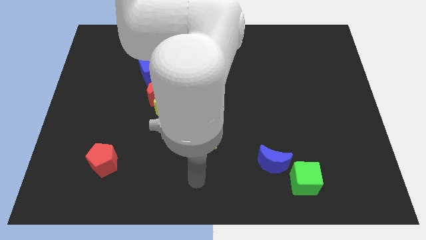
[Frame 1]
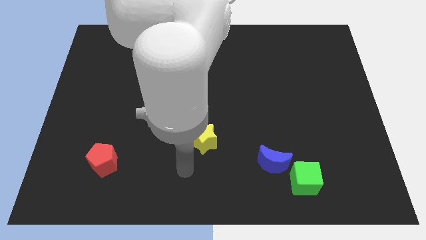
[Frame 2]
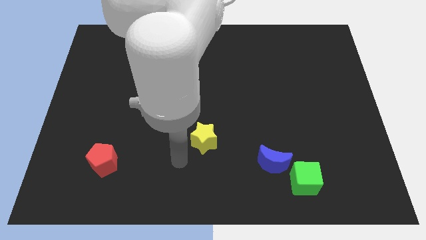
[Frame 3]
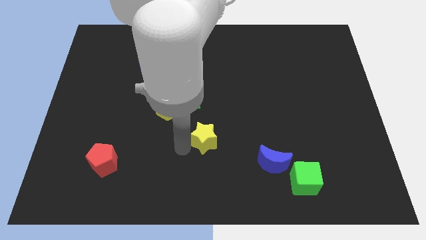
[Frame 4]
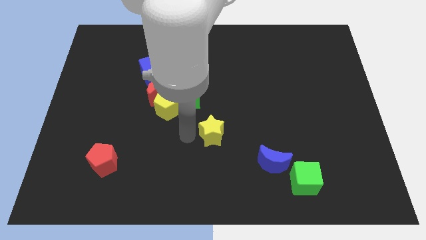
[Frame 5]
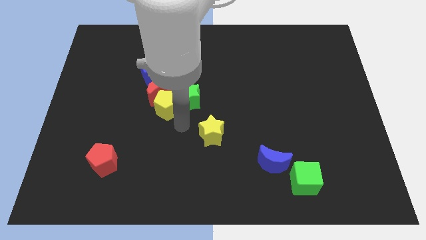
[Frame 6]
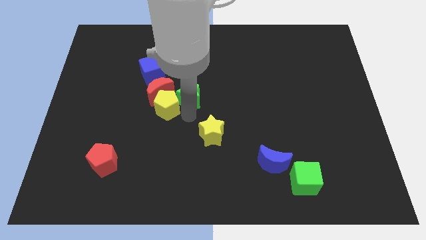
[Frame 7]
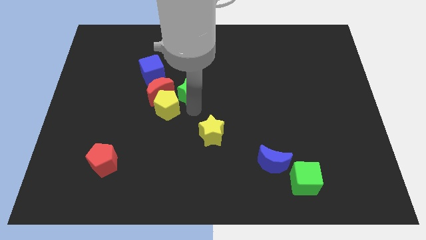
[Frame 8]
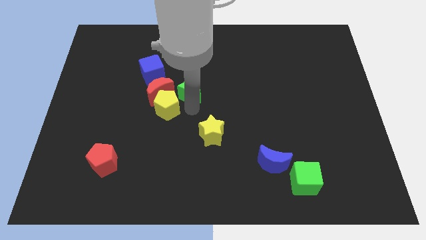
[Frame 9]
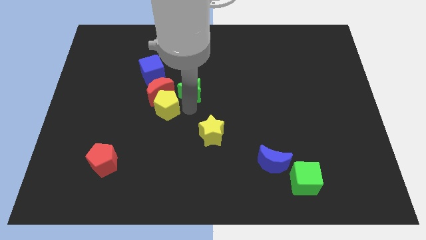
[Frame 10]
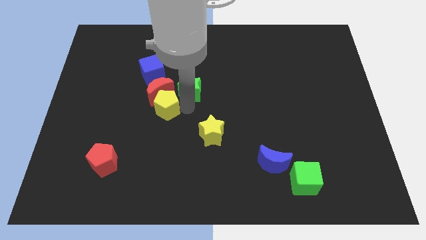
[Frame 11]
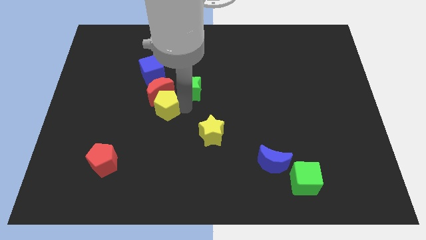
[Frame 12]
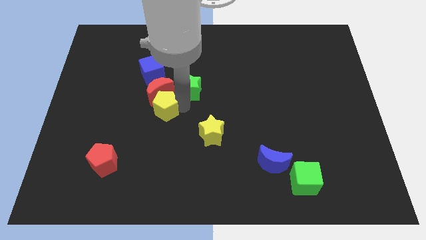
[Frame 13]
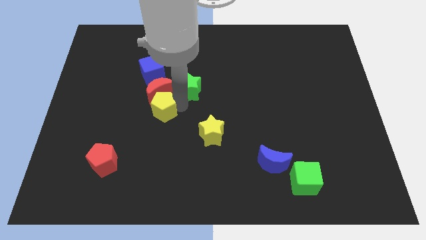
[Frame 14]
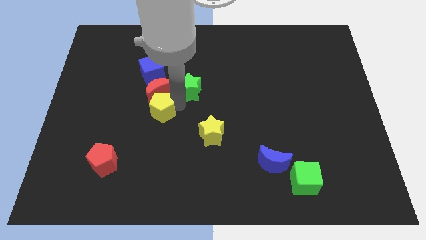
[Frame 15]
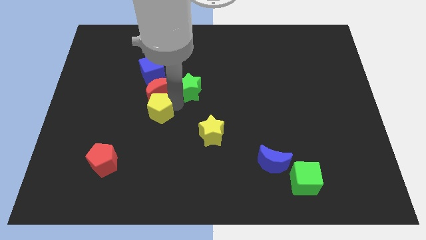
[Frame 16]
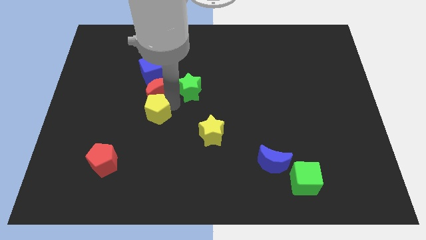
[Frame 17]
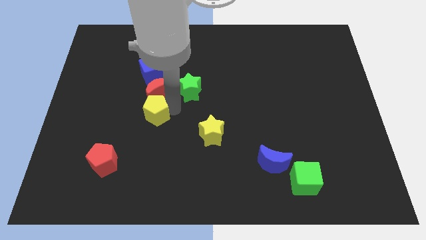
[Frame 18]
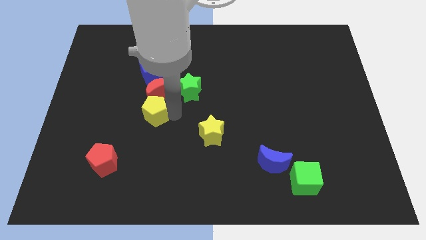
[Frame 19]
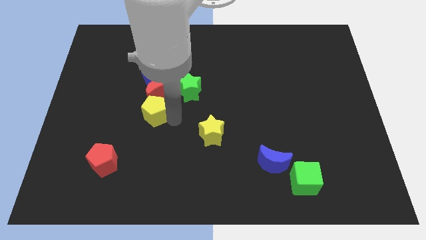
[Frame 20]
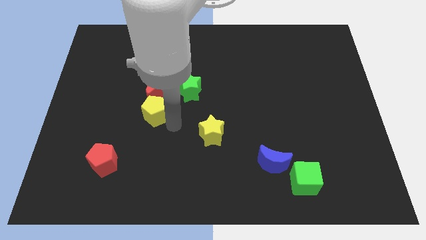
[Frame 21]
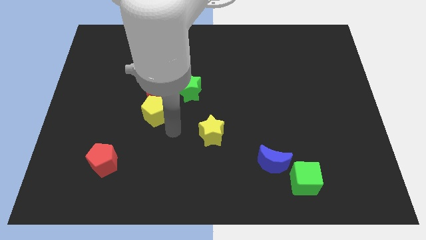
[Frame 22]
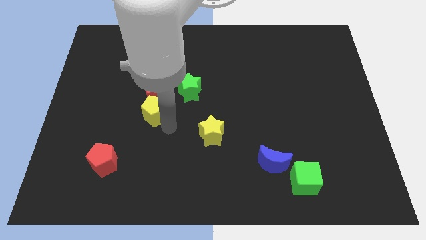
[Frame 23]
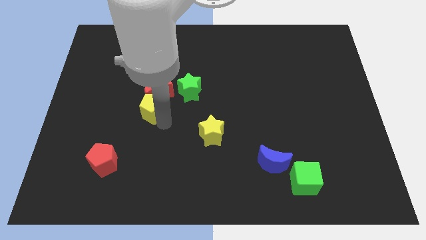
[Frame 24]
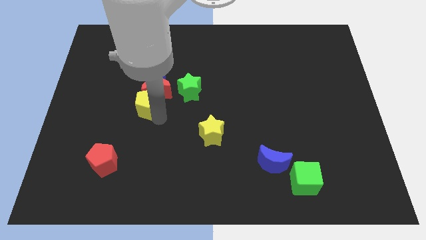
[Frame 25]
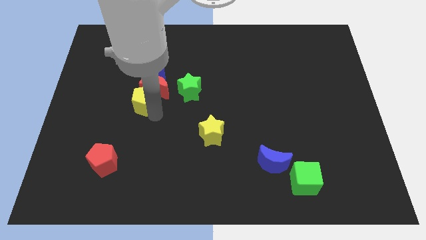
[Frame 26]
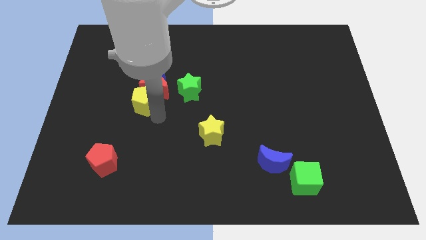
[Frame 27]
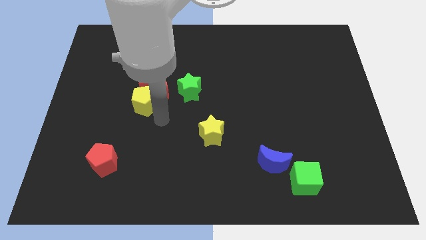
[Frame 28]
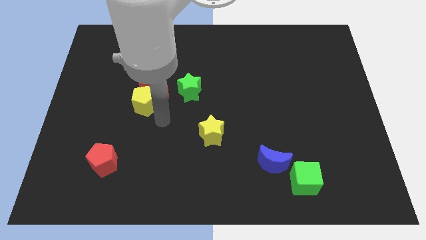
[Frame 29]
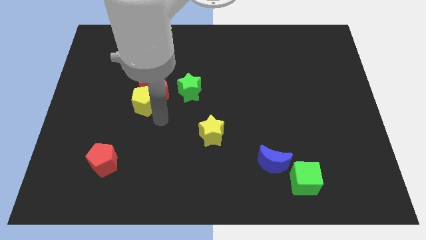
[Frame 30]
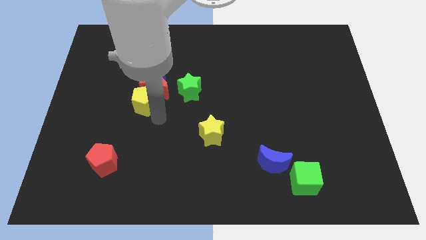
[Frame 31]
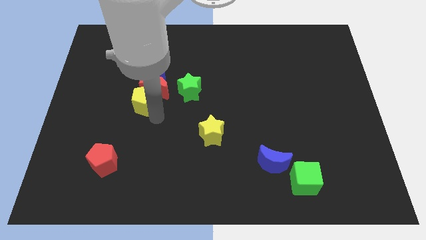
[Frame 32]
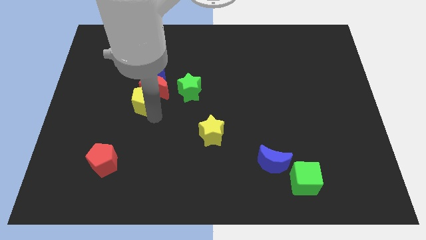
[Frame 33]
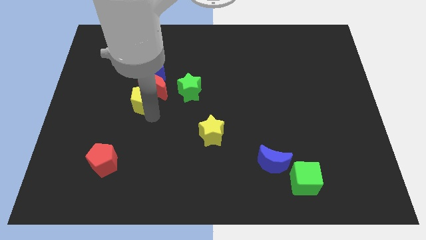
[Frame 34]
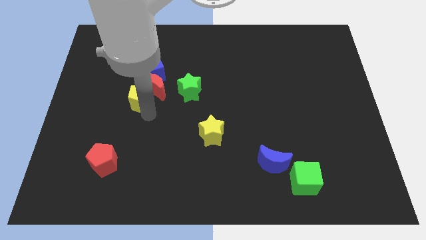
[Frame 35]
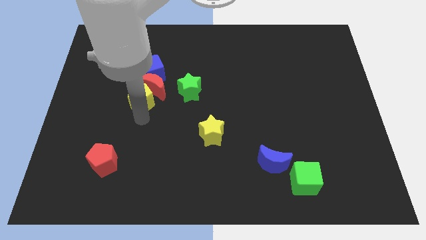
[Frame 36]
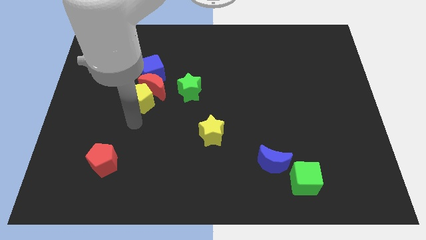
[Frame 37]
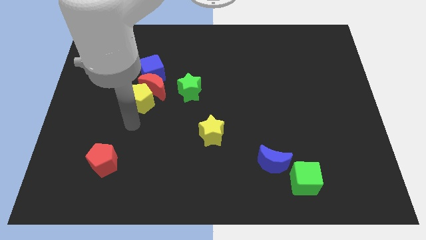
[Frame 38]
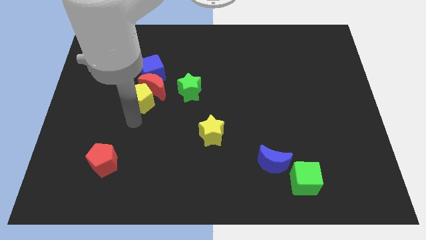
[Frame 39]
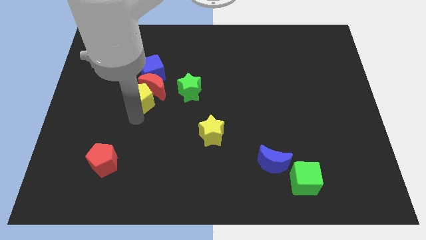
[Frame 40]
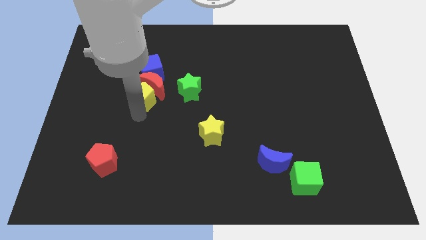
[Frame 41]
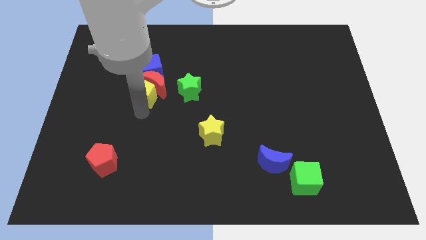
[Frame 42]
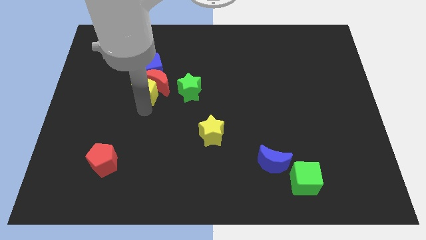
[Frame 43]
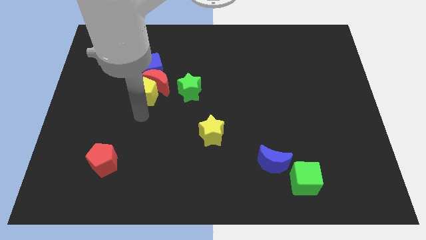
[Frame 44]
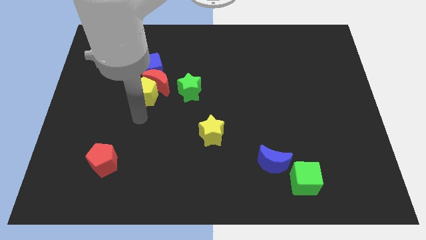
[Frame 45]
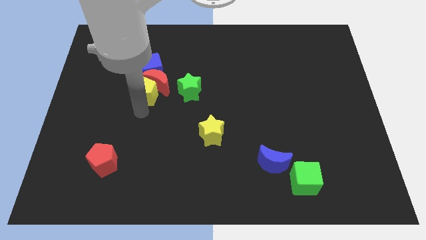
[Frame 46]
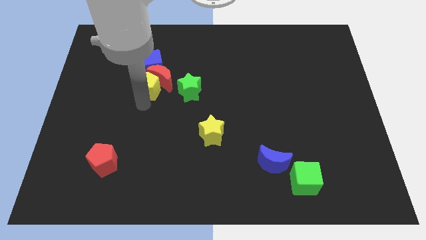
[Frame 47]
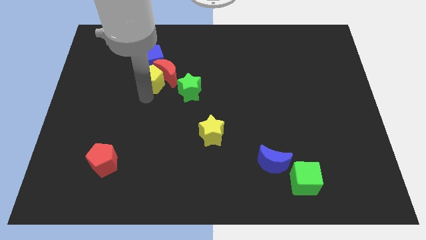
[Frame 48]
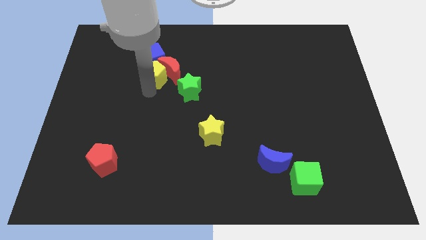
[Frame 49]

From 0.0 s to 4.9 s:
push the yellow pentagon to the blue cube

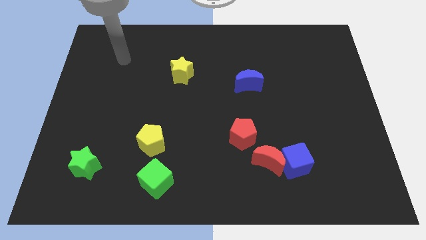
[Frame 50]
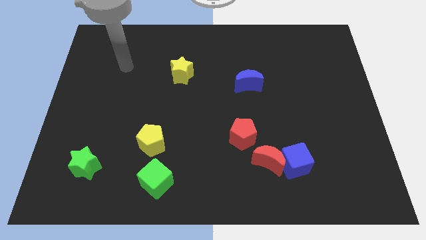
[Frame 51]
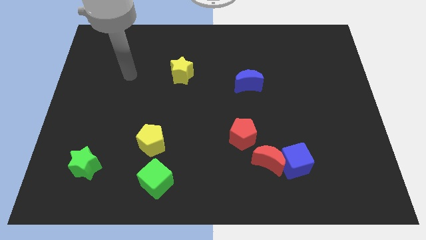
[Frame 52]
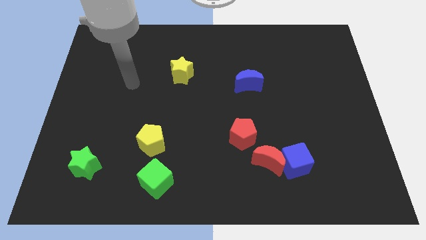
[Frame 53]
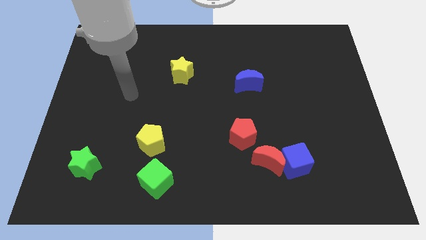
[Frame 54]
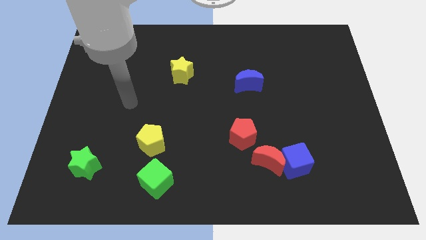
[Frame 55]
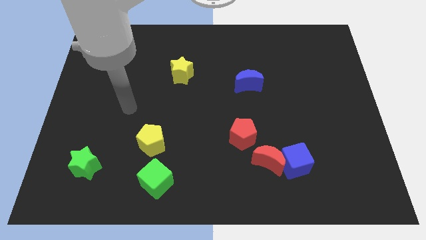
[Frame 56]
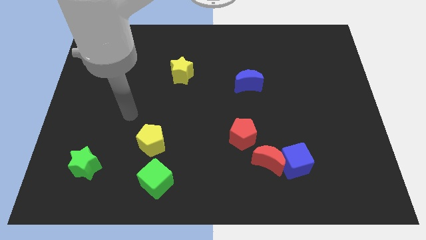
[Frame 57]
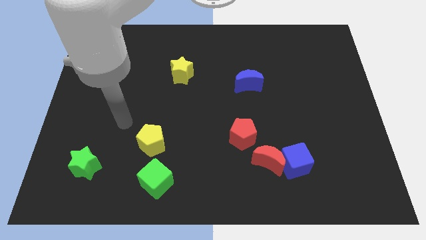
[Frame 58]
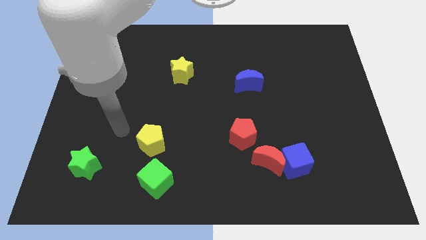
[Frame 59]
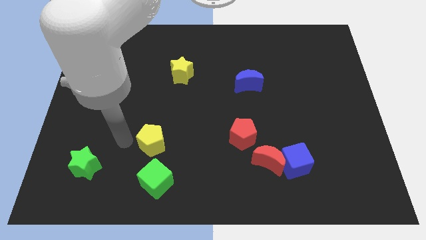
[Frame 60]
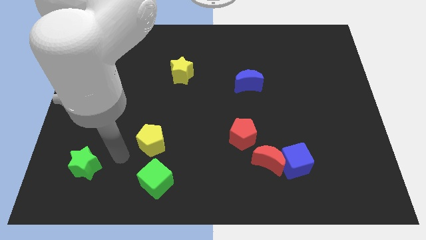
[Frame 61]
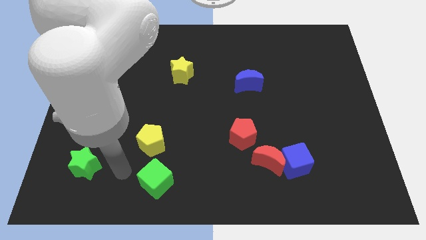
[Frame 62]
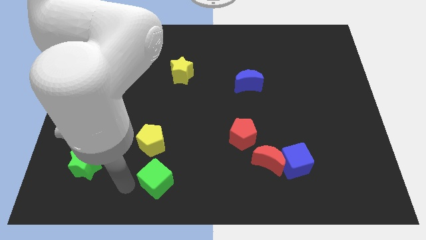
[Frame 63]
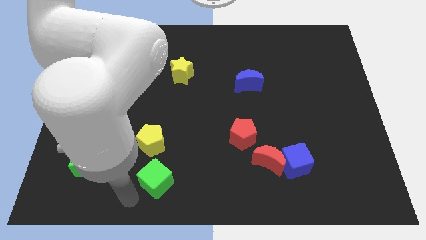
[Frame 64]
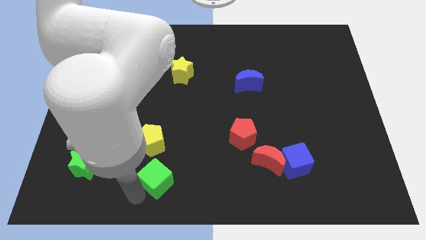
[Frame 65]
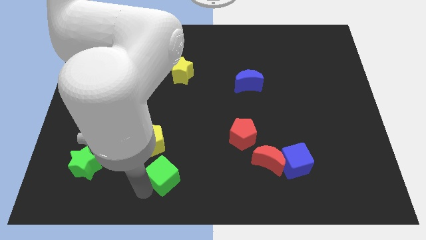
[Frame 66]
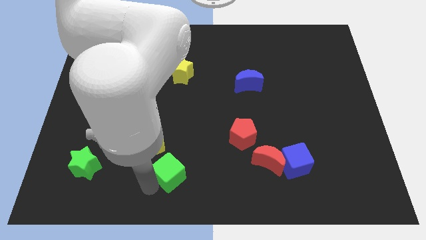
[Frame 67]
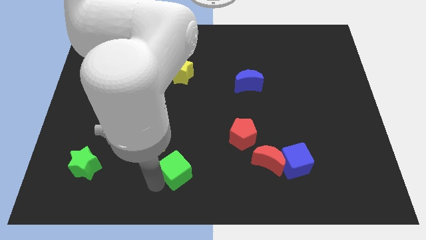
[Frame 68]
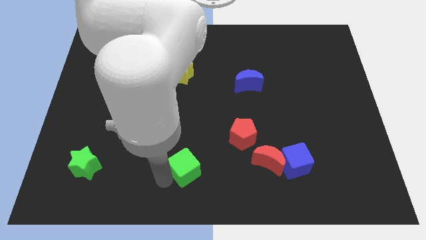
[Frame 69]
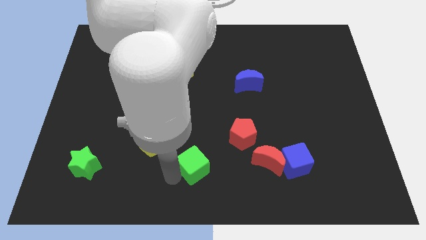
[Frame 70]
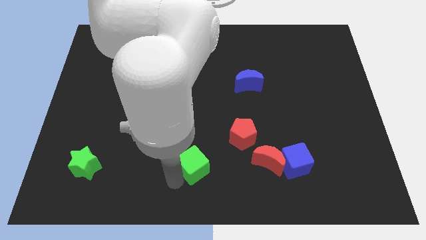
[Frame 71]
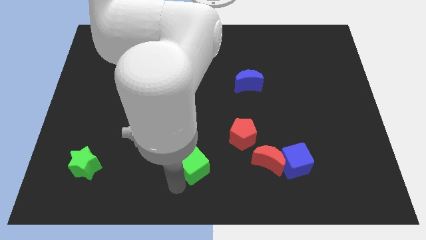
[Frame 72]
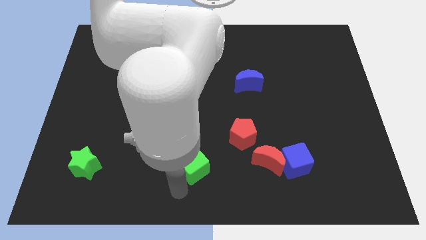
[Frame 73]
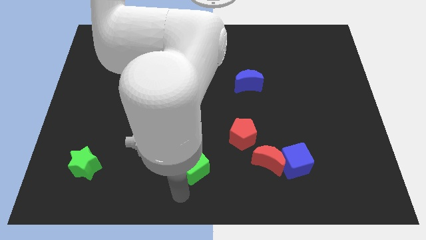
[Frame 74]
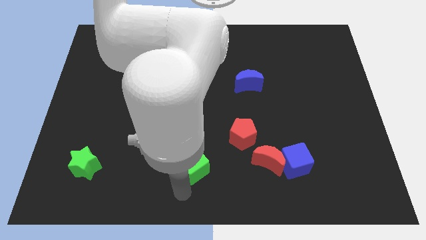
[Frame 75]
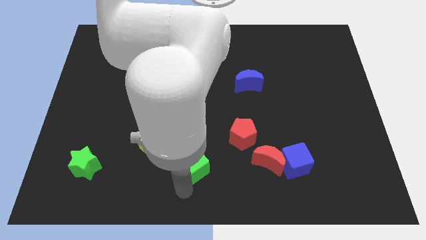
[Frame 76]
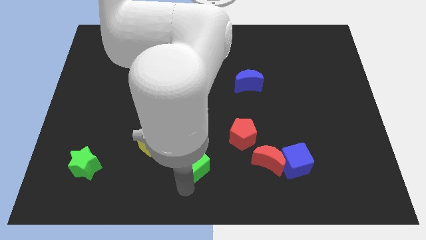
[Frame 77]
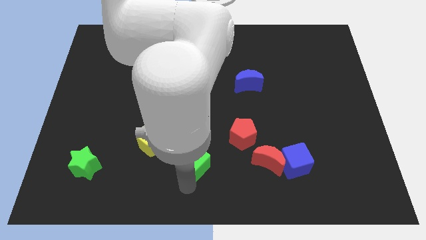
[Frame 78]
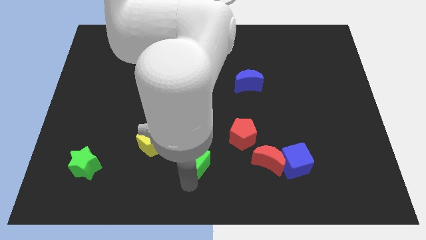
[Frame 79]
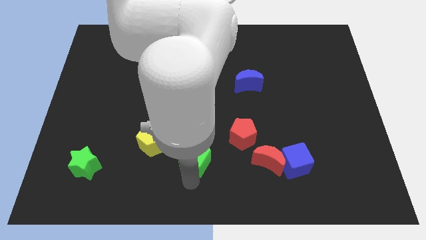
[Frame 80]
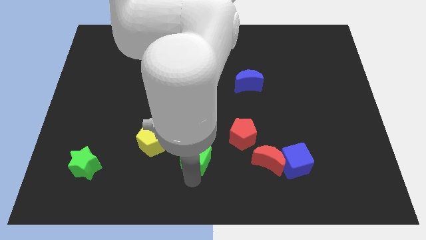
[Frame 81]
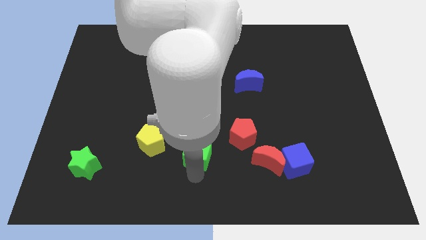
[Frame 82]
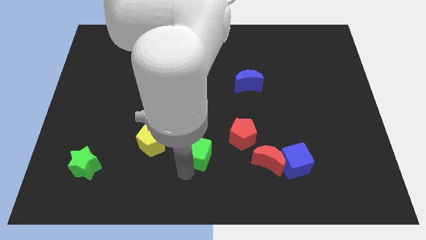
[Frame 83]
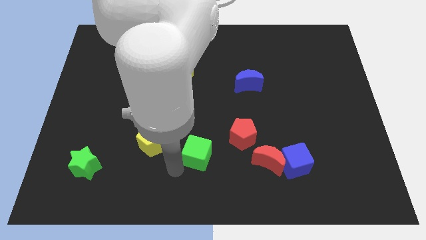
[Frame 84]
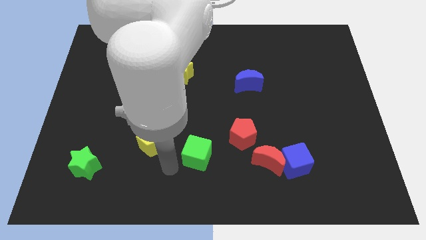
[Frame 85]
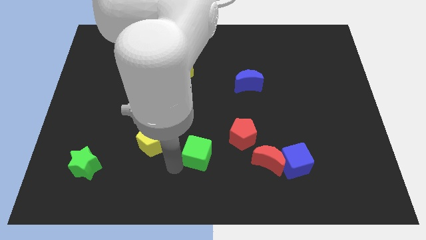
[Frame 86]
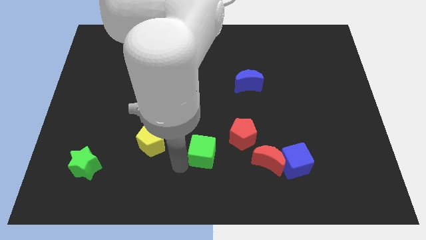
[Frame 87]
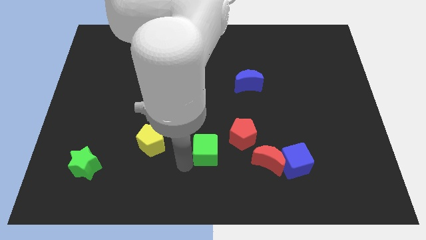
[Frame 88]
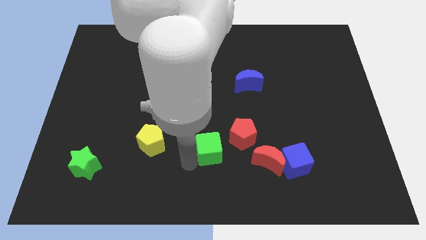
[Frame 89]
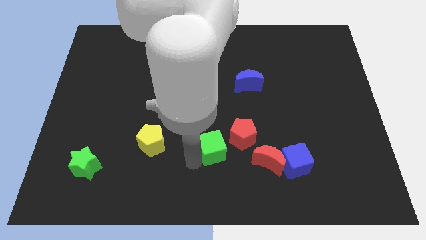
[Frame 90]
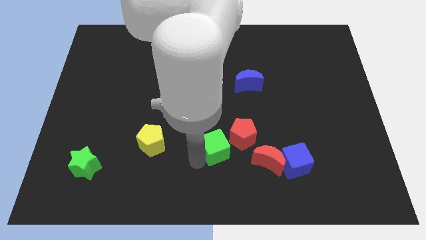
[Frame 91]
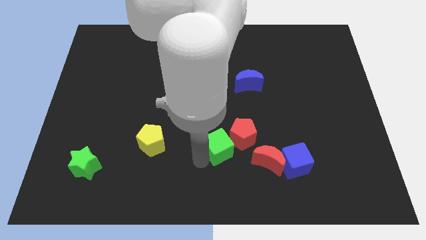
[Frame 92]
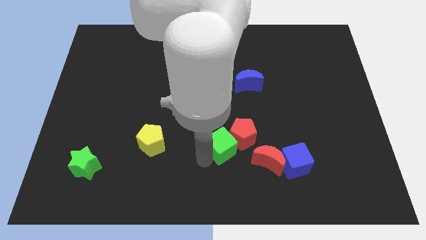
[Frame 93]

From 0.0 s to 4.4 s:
push the green cube close to the red pentagon
